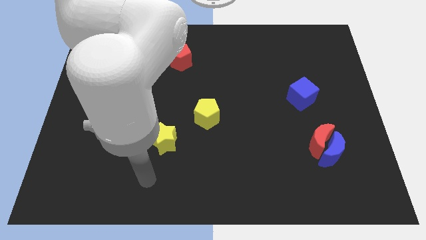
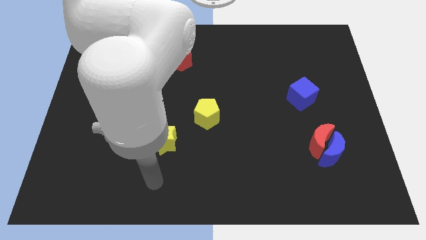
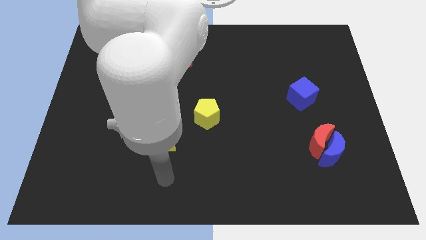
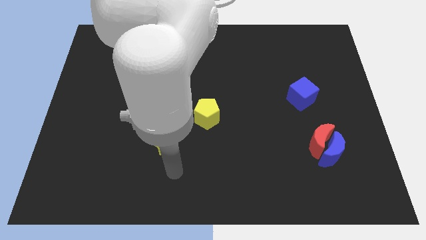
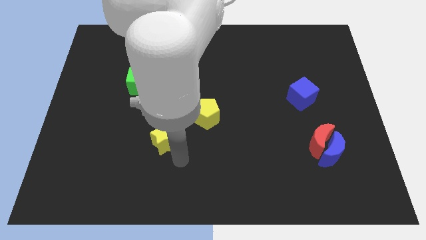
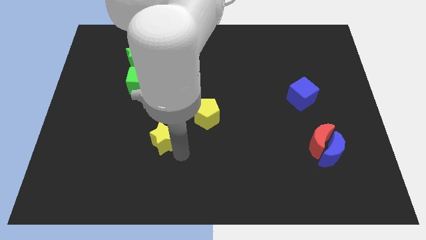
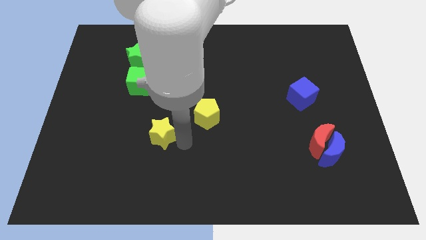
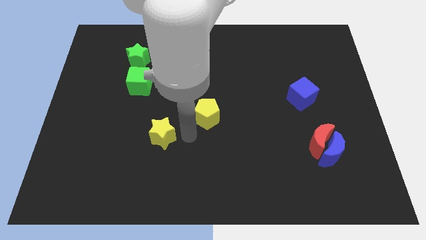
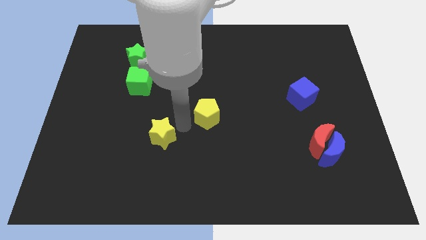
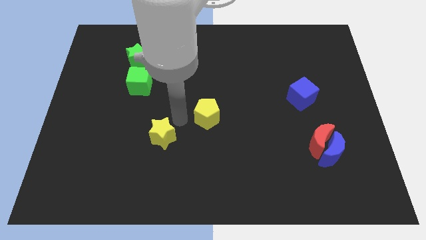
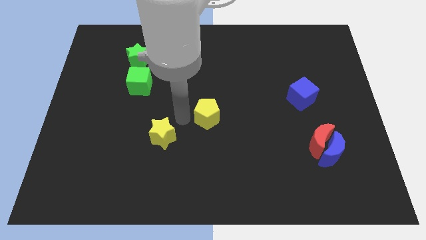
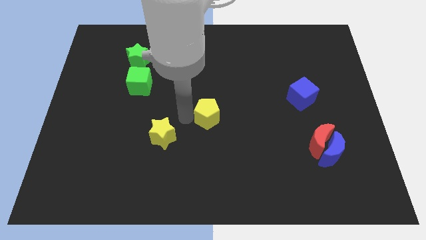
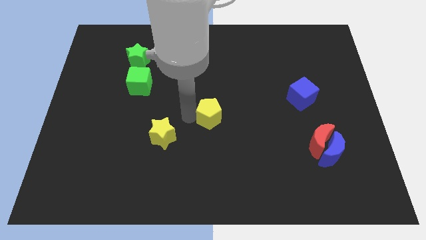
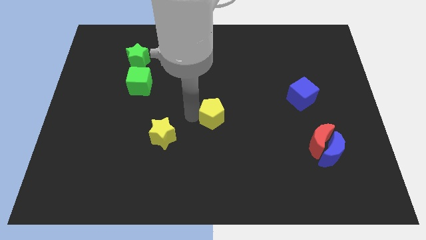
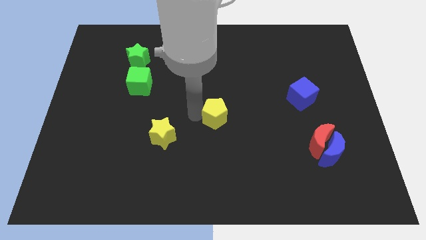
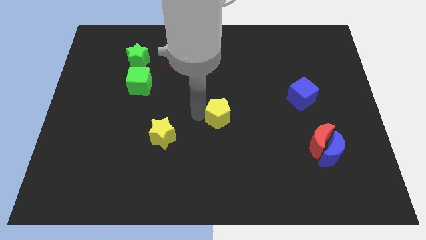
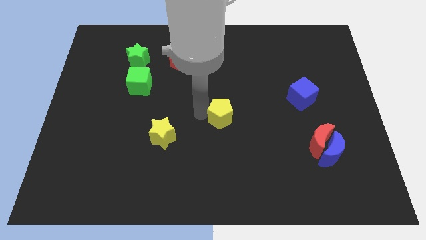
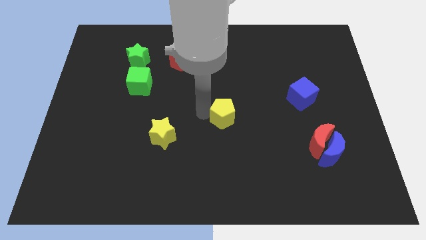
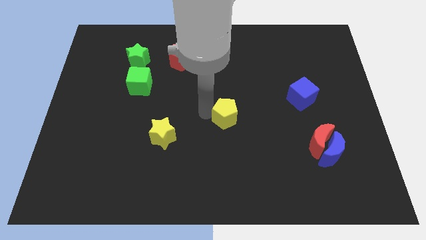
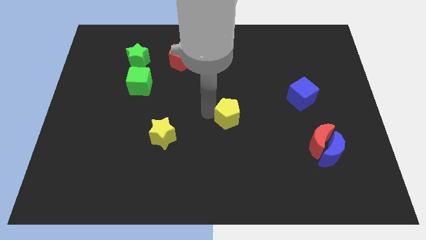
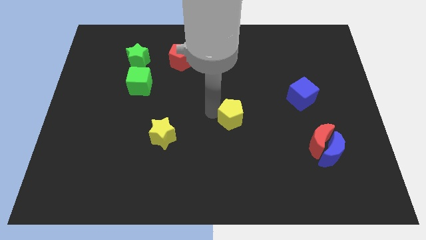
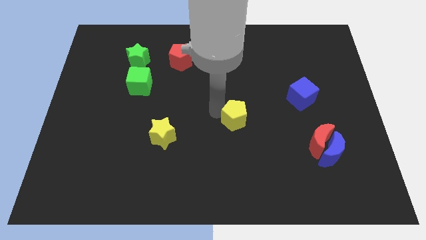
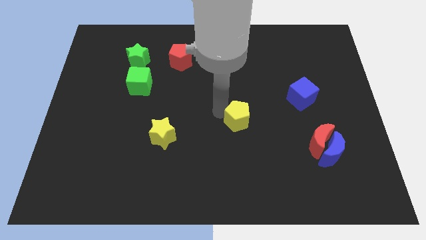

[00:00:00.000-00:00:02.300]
slide the yellow pentagon somewhat right

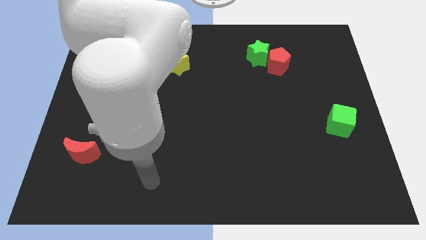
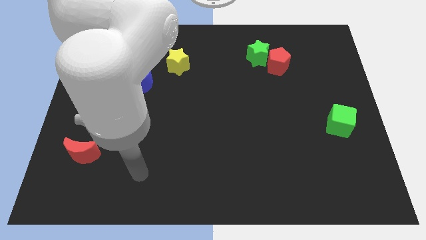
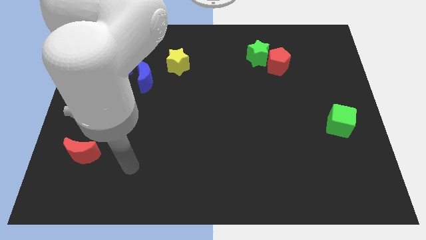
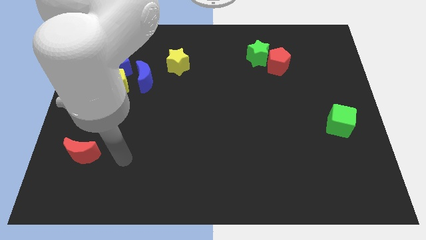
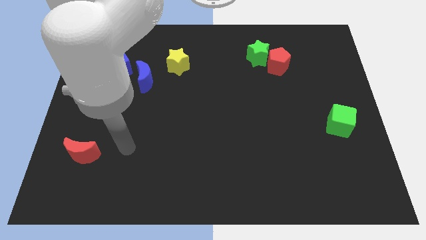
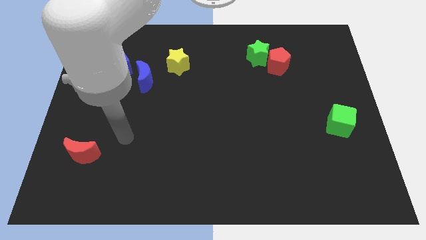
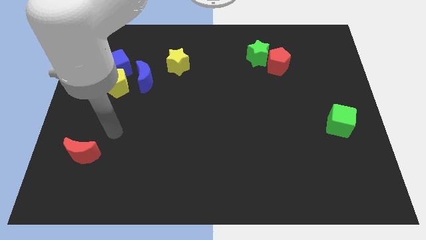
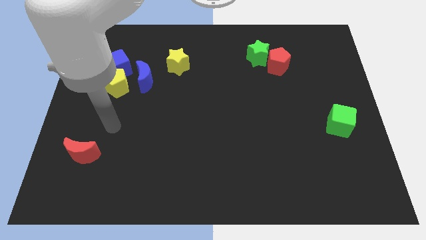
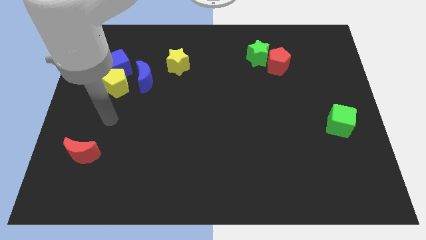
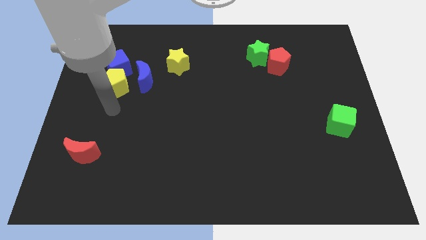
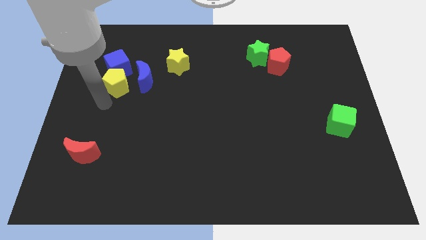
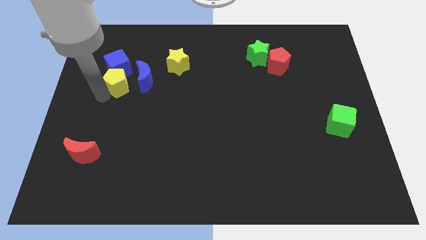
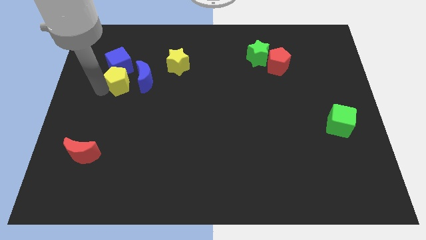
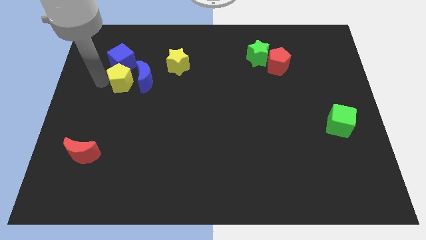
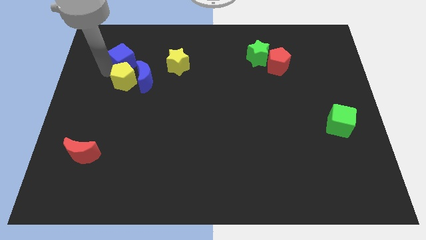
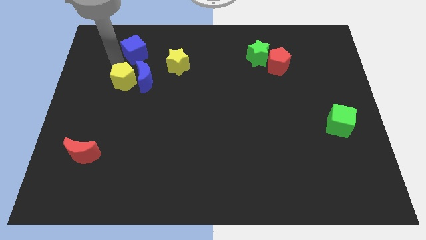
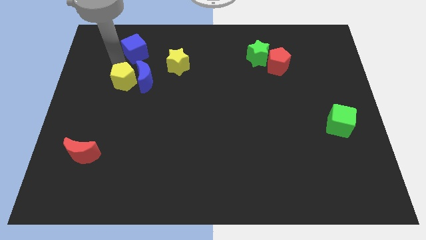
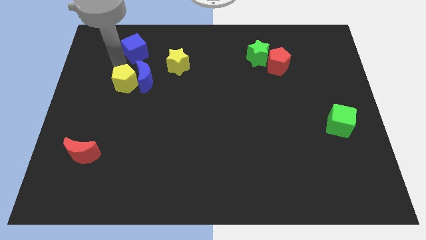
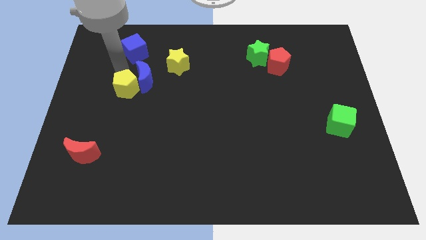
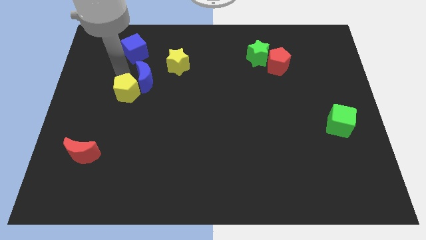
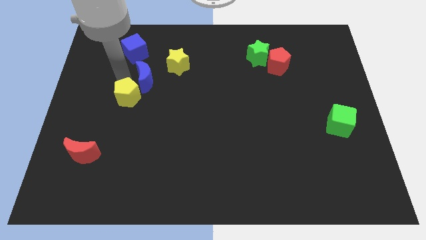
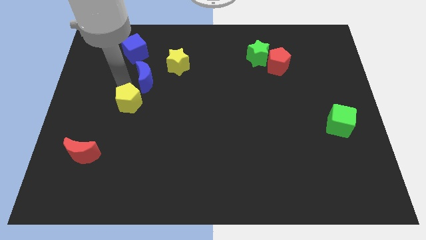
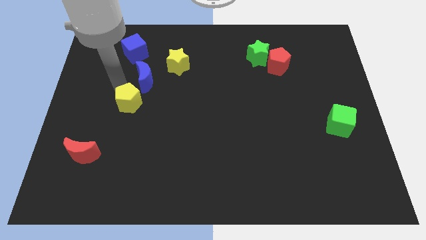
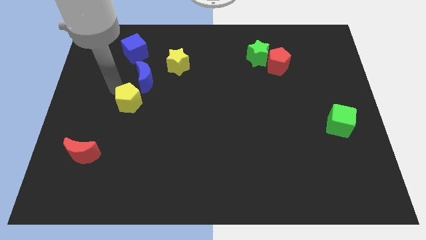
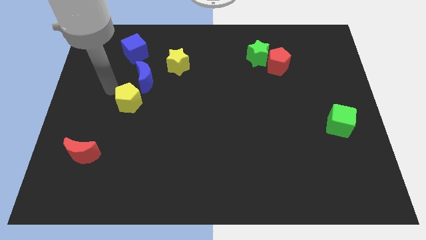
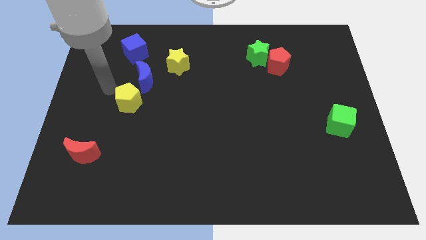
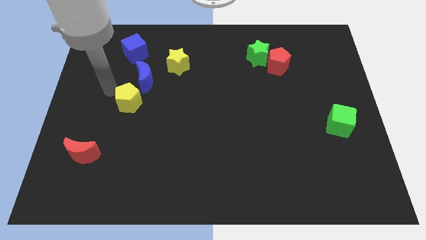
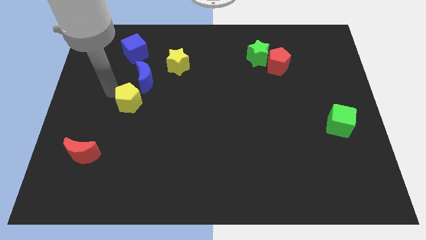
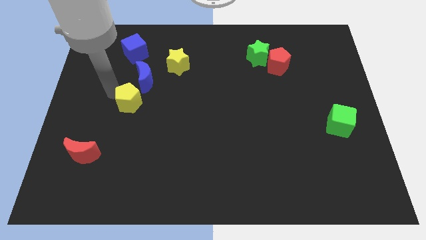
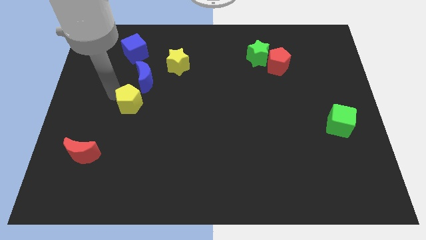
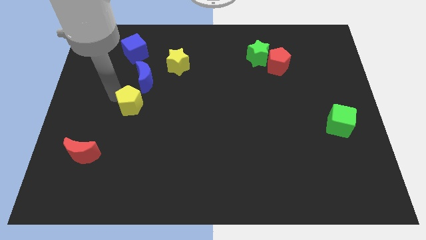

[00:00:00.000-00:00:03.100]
push the yellow pentagon down and then to the right somewhat

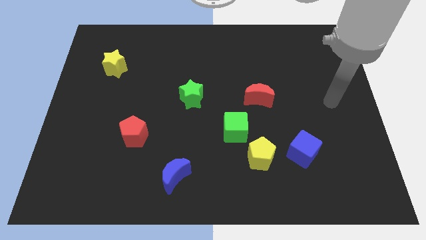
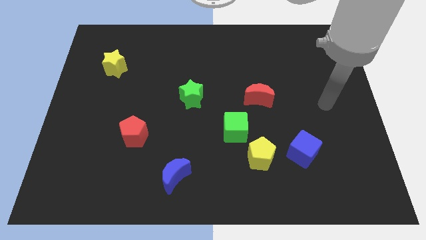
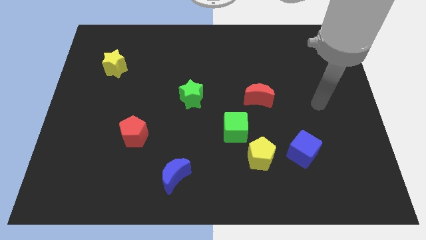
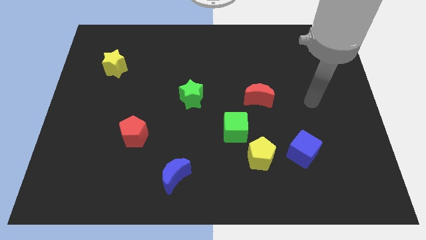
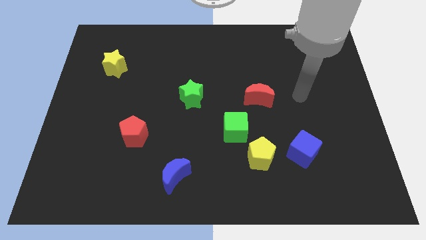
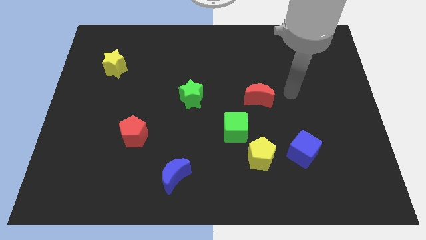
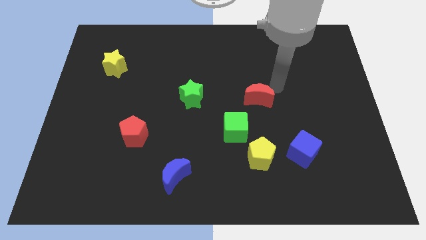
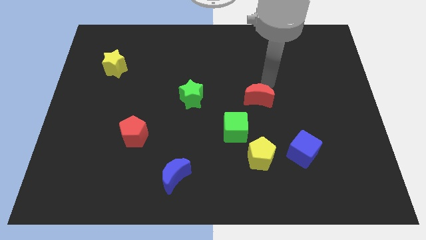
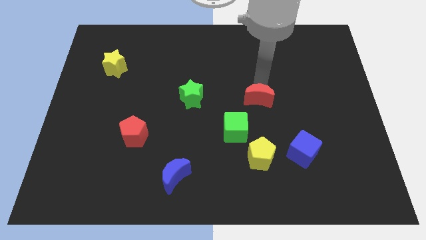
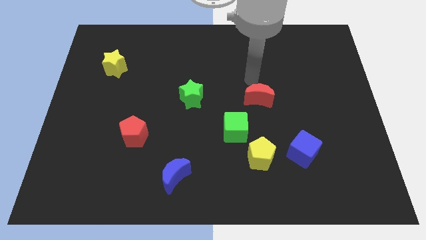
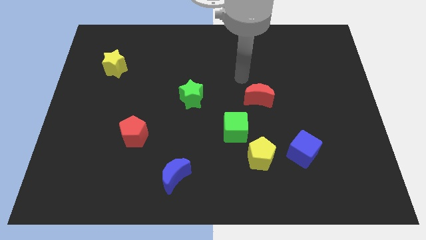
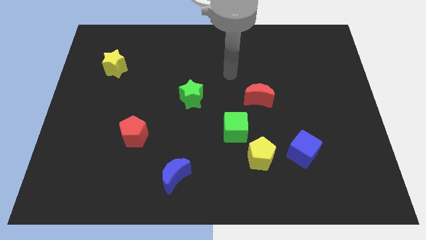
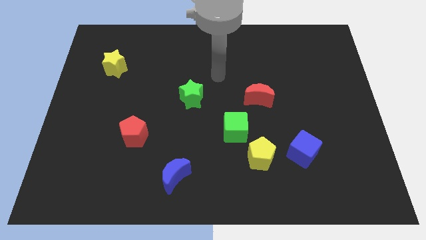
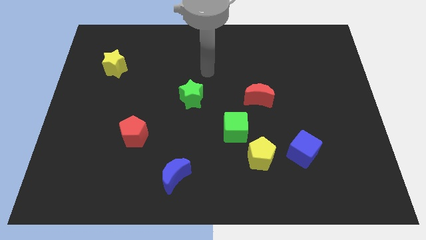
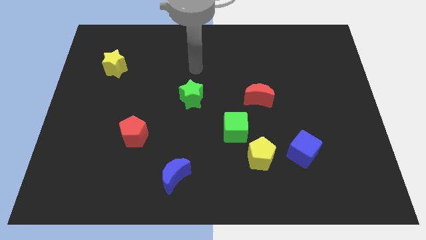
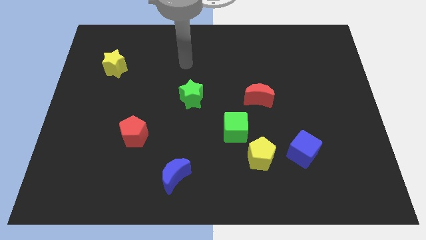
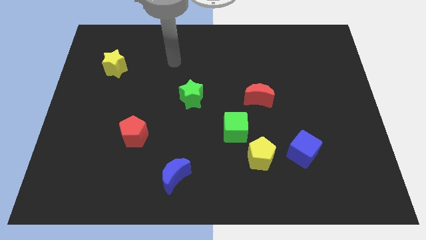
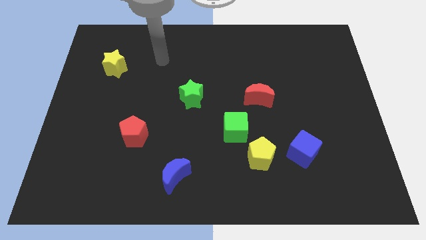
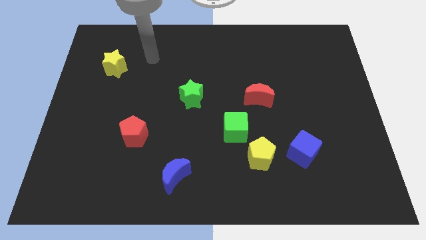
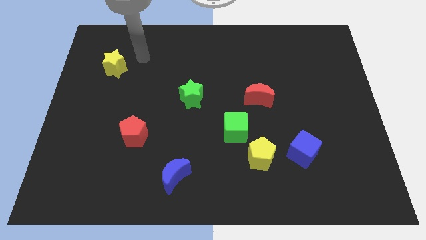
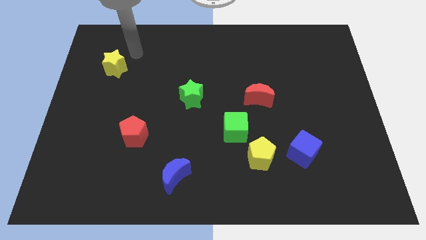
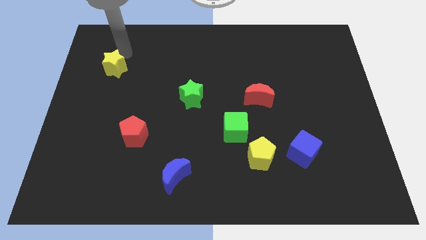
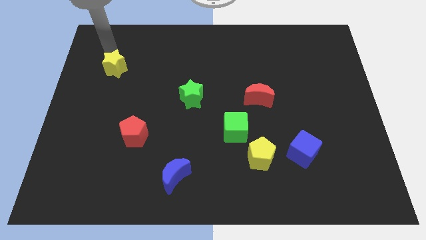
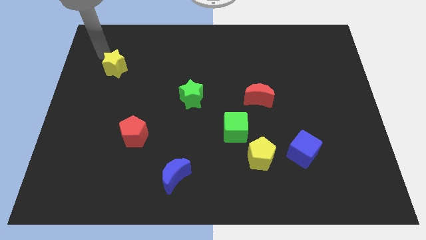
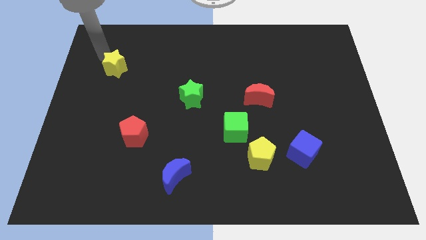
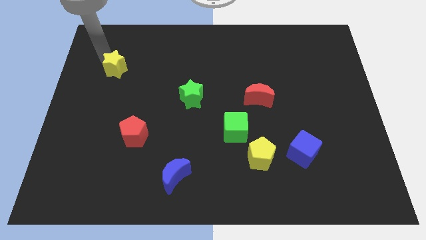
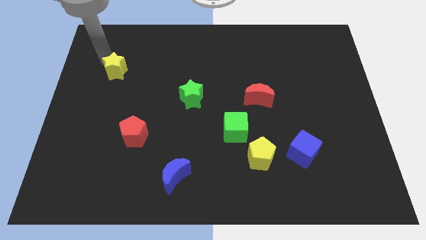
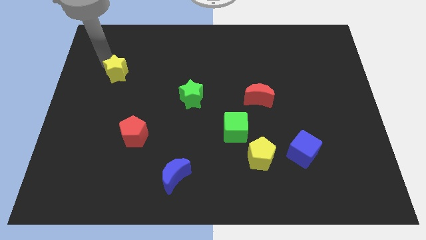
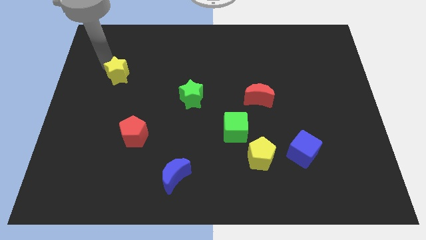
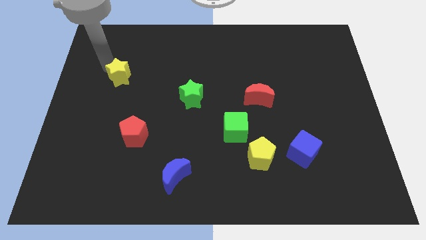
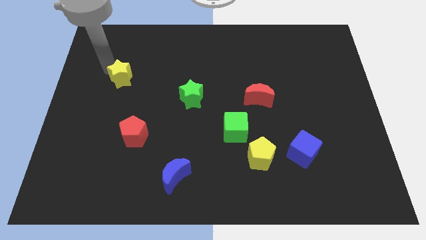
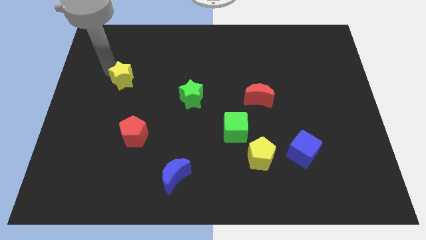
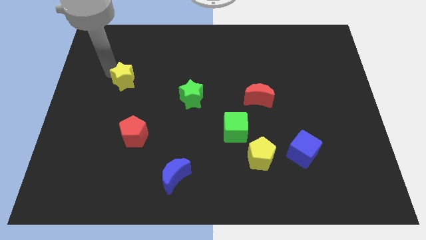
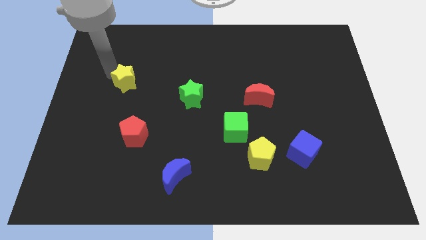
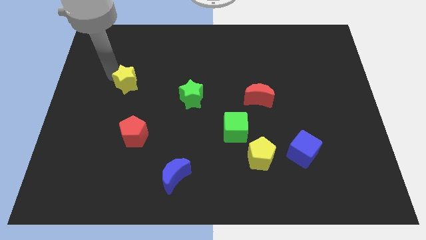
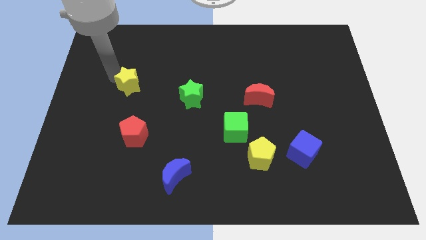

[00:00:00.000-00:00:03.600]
push the yellow star downwards and right diagonally somewhat
